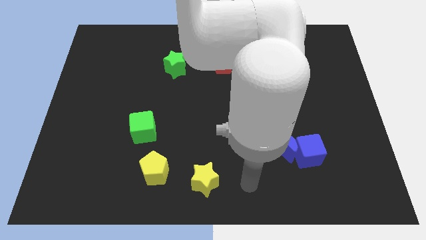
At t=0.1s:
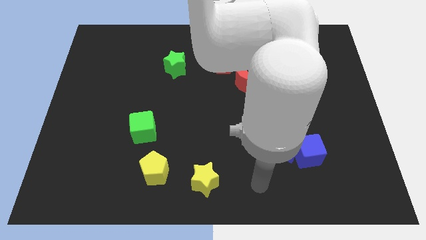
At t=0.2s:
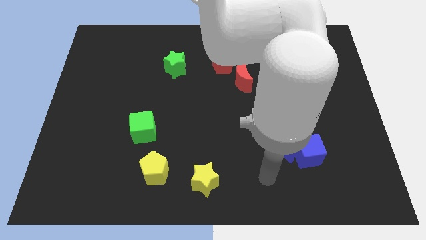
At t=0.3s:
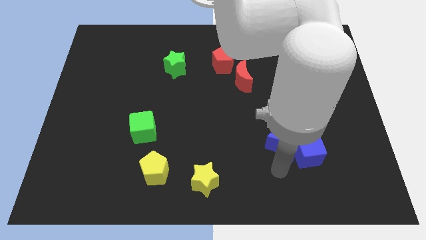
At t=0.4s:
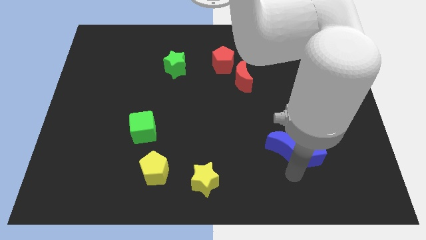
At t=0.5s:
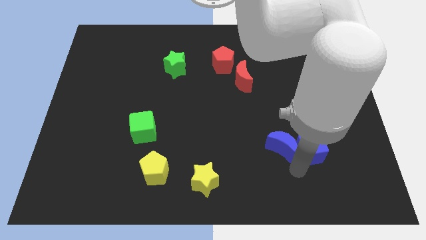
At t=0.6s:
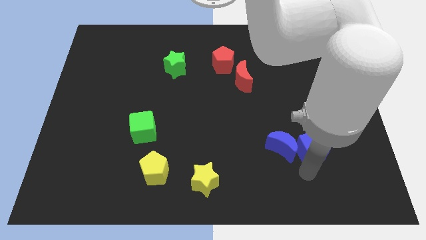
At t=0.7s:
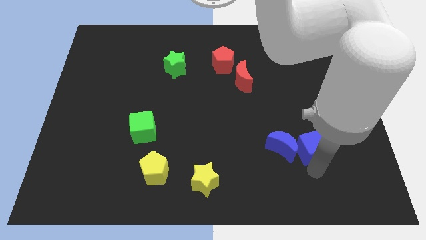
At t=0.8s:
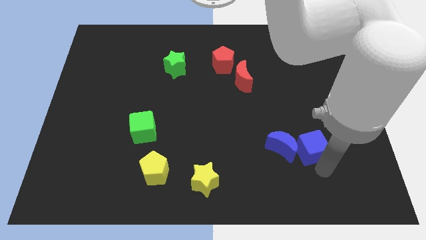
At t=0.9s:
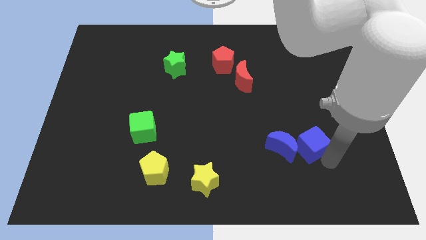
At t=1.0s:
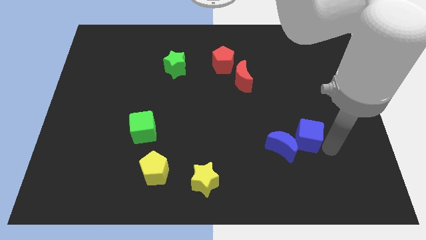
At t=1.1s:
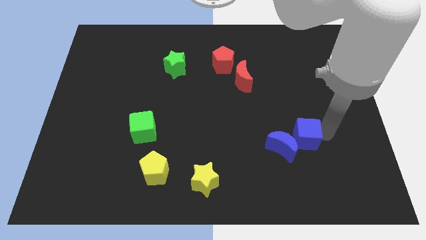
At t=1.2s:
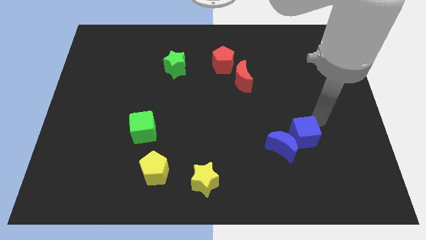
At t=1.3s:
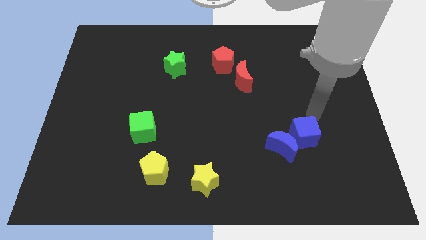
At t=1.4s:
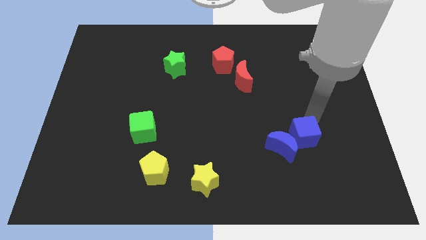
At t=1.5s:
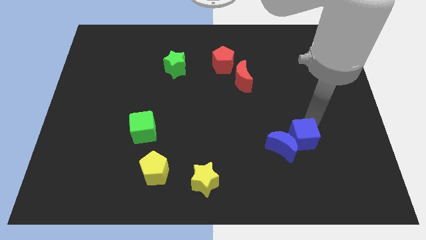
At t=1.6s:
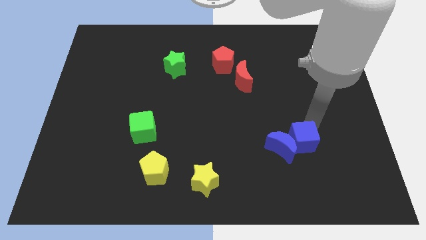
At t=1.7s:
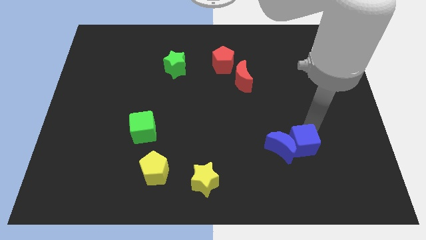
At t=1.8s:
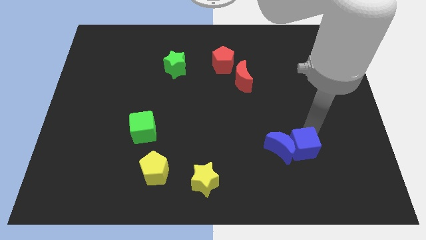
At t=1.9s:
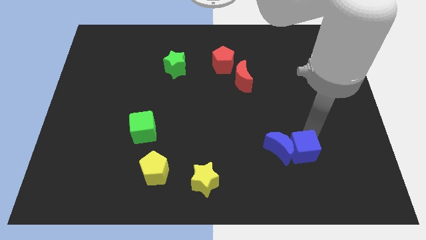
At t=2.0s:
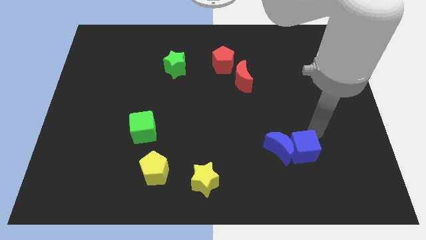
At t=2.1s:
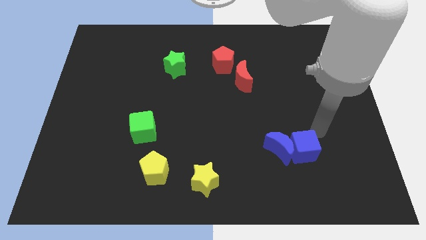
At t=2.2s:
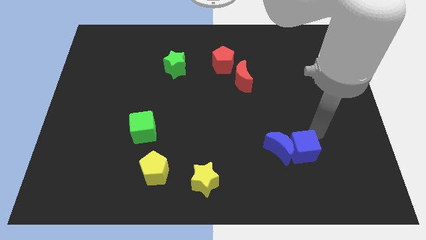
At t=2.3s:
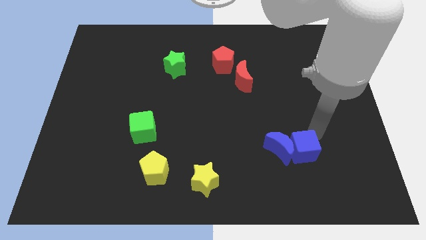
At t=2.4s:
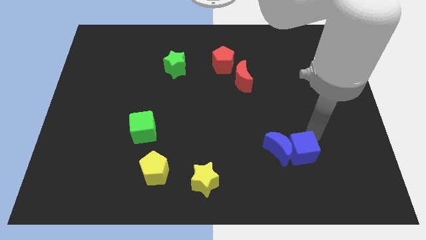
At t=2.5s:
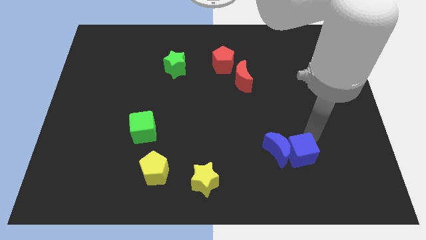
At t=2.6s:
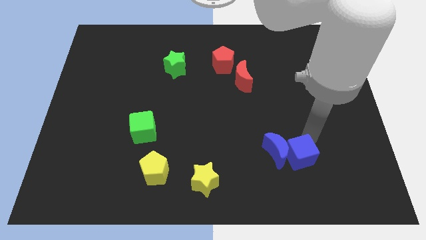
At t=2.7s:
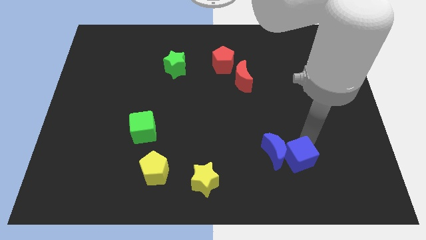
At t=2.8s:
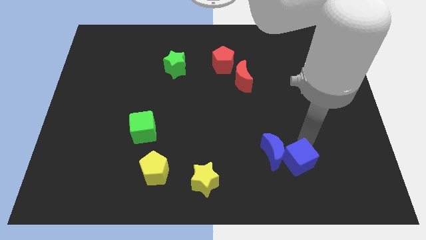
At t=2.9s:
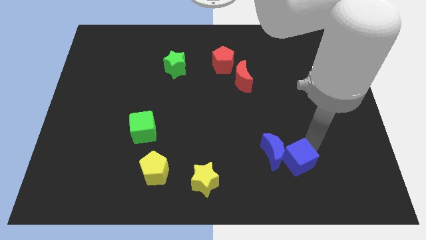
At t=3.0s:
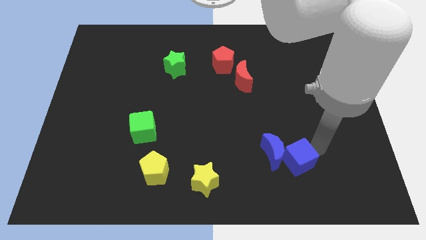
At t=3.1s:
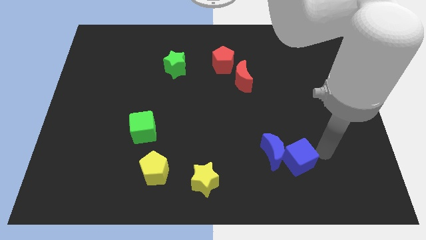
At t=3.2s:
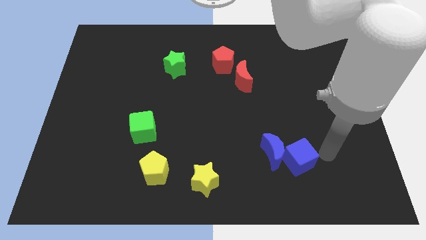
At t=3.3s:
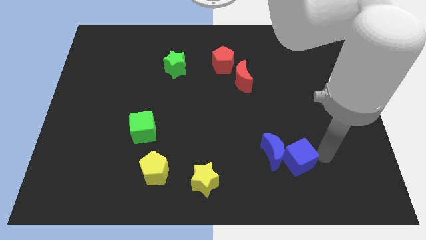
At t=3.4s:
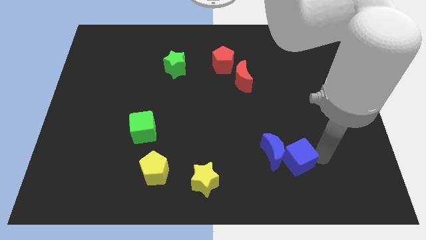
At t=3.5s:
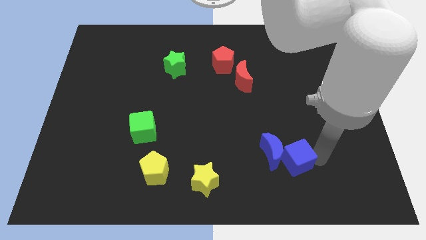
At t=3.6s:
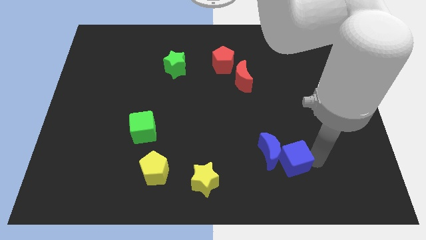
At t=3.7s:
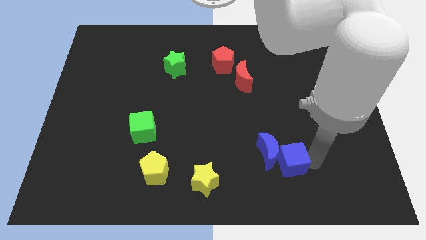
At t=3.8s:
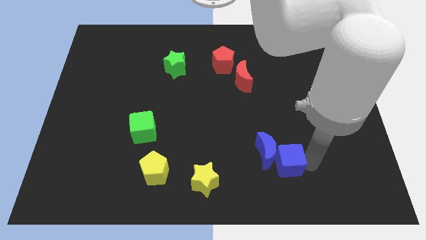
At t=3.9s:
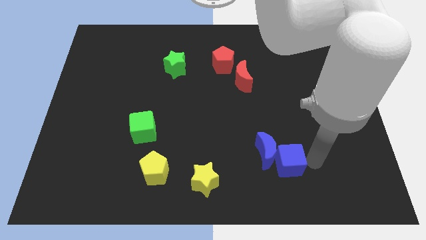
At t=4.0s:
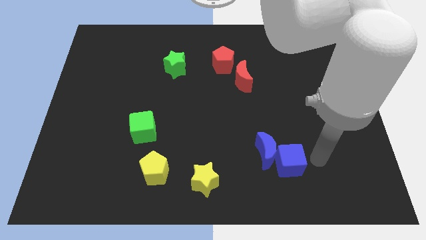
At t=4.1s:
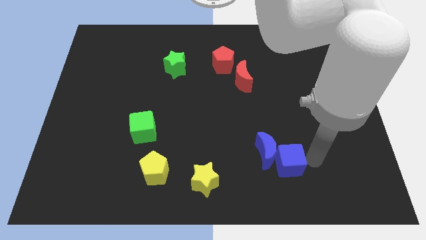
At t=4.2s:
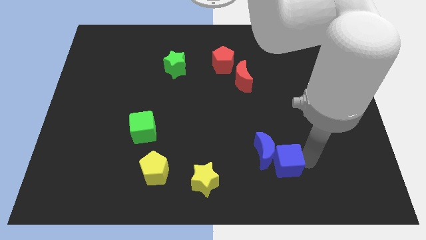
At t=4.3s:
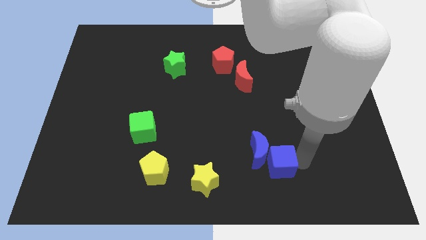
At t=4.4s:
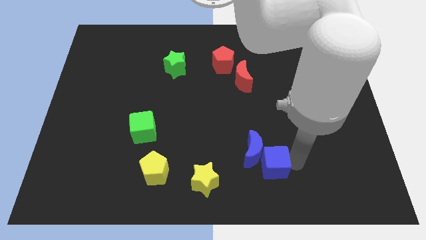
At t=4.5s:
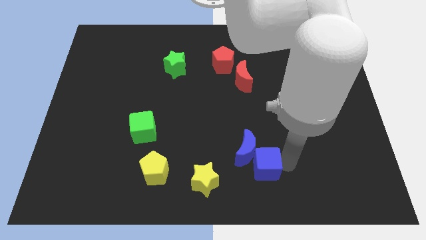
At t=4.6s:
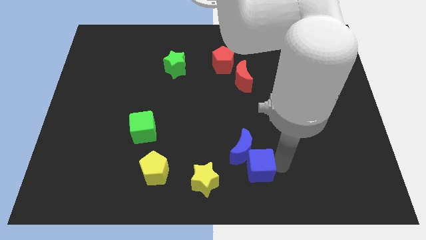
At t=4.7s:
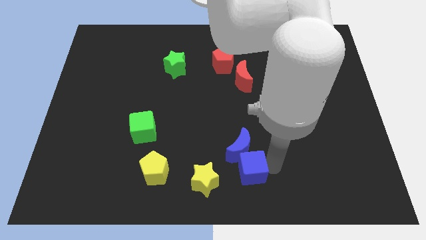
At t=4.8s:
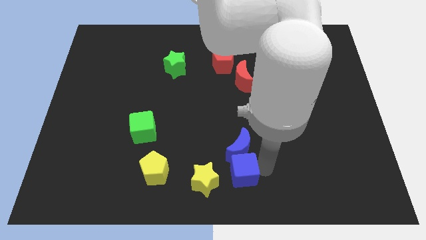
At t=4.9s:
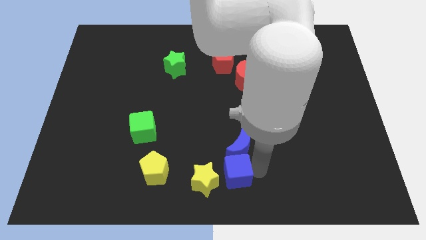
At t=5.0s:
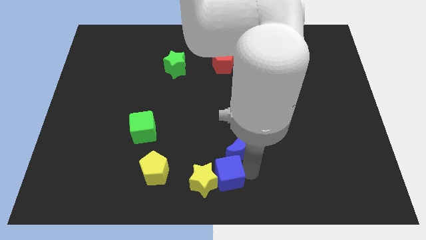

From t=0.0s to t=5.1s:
push the blue cube close to the yellow star

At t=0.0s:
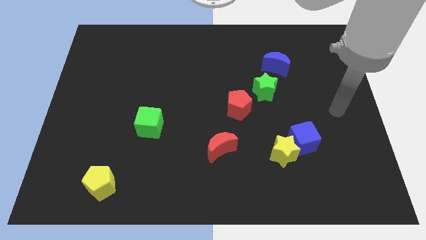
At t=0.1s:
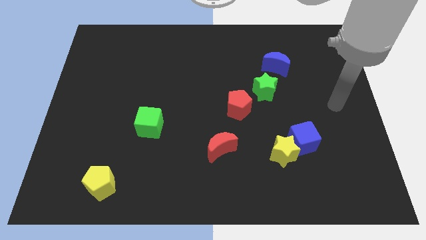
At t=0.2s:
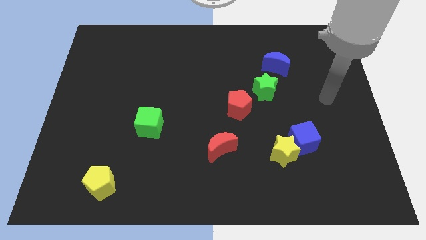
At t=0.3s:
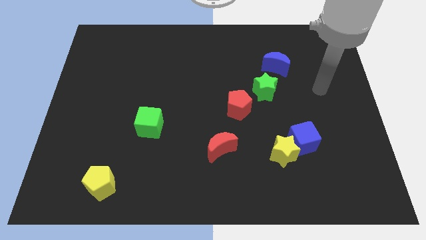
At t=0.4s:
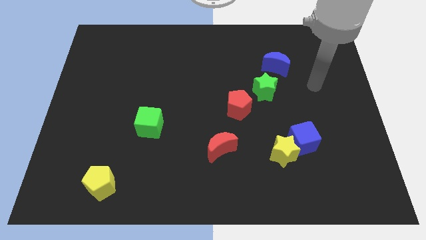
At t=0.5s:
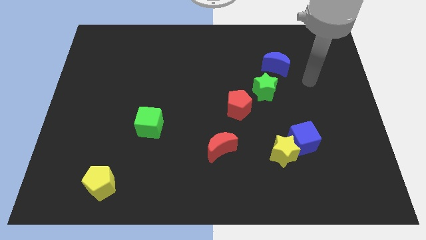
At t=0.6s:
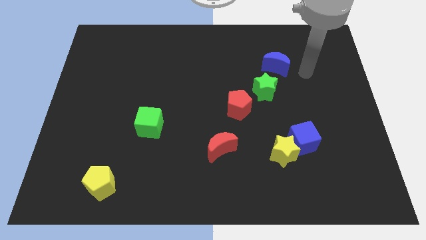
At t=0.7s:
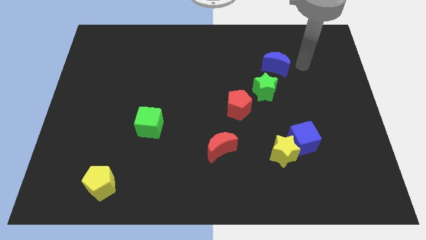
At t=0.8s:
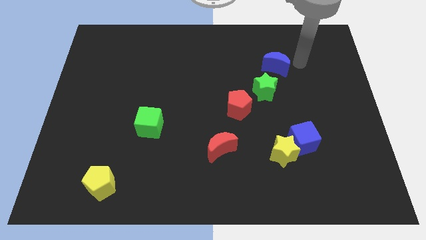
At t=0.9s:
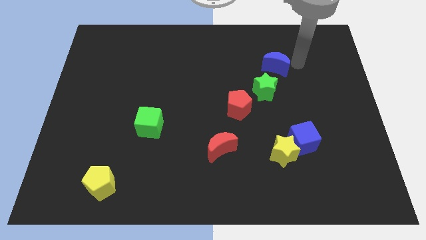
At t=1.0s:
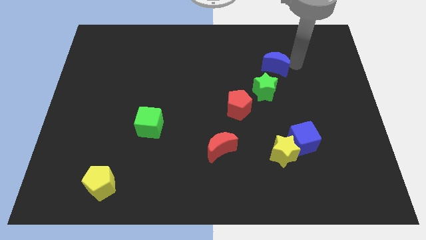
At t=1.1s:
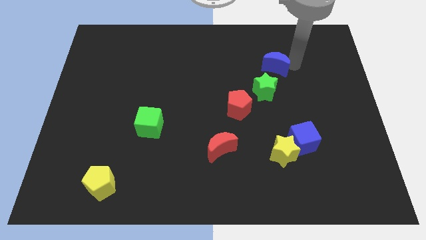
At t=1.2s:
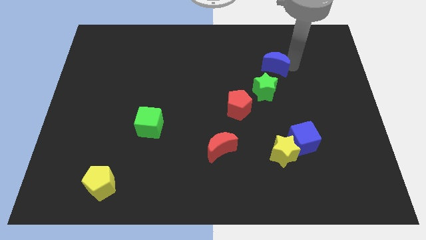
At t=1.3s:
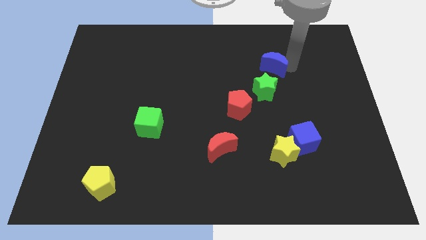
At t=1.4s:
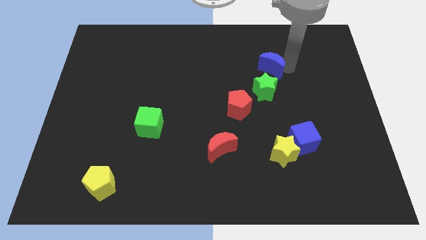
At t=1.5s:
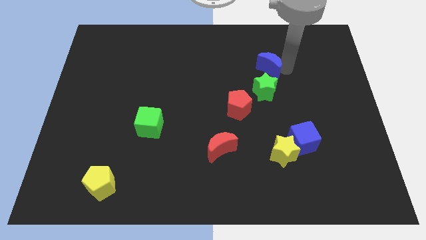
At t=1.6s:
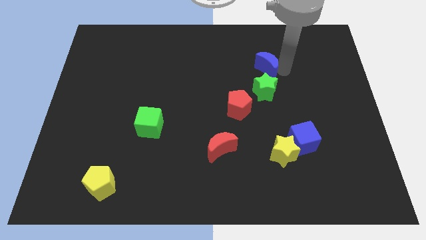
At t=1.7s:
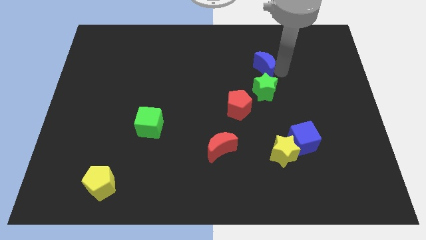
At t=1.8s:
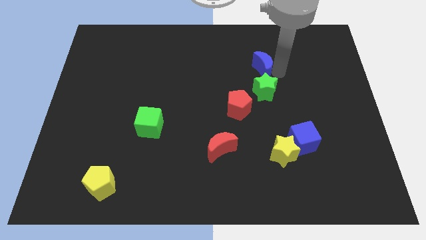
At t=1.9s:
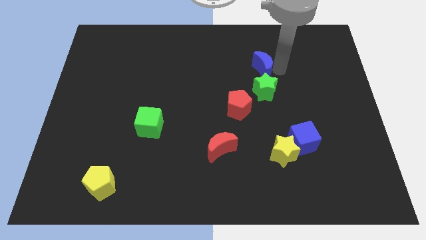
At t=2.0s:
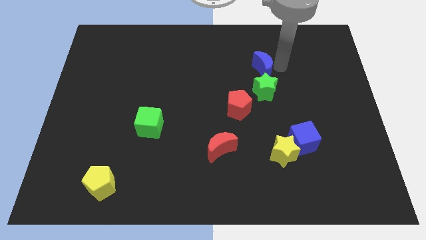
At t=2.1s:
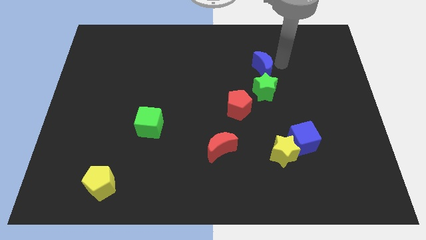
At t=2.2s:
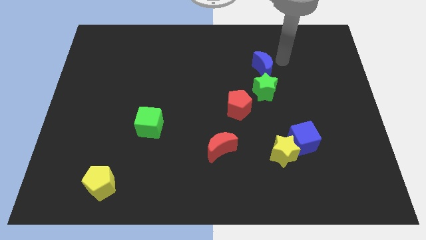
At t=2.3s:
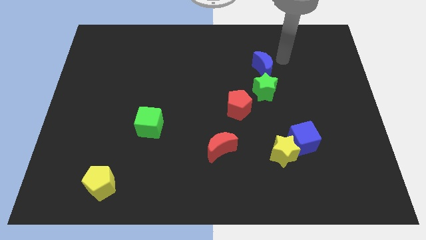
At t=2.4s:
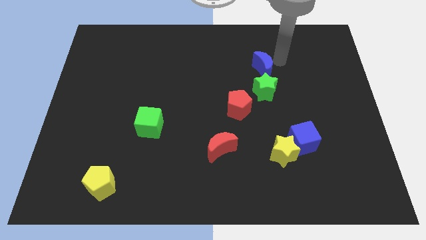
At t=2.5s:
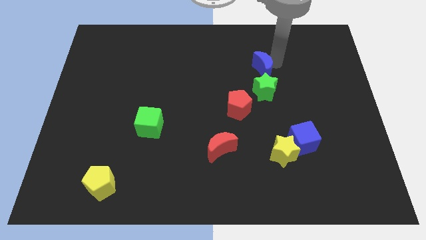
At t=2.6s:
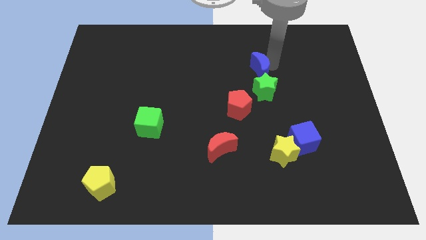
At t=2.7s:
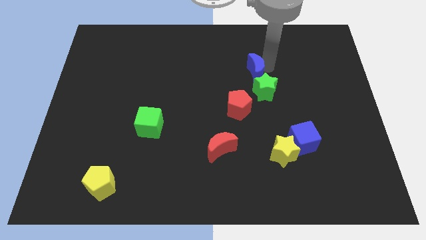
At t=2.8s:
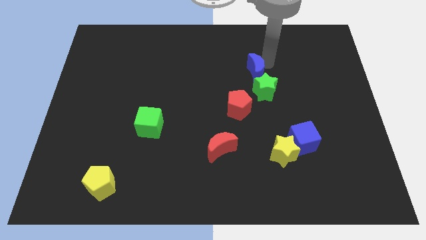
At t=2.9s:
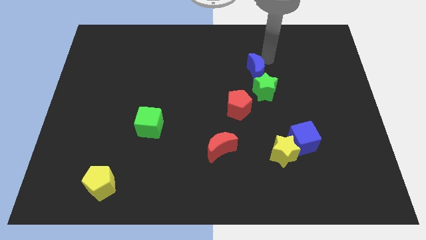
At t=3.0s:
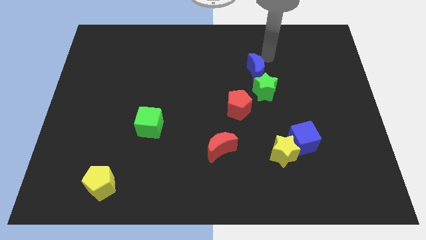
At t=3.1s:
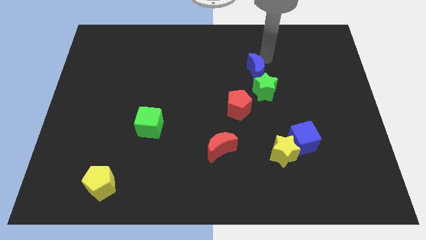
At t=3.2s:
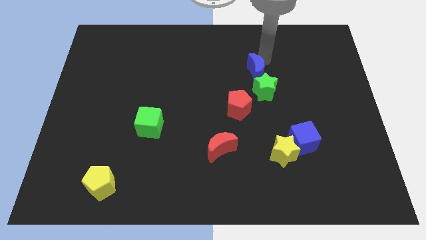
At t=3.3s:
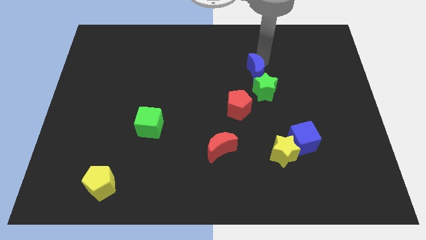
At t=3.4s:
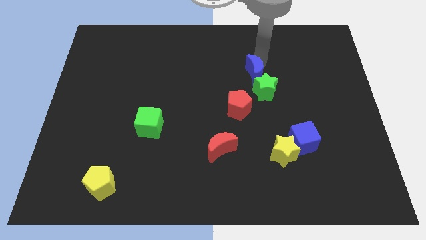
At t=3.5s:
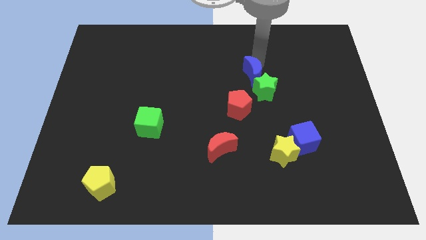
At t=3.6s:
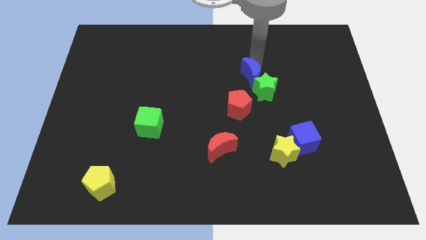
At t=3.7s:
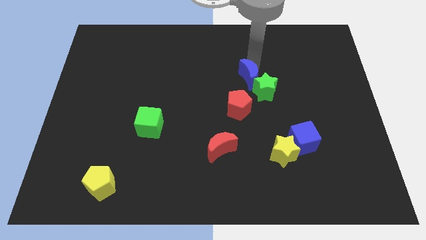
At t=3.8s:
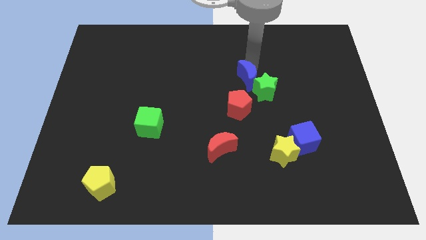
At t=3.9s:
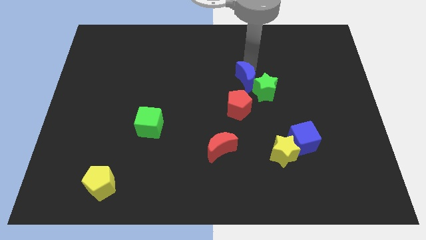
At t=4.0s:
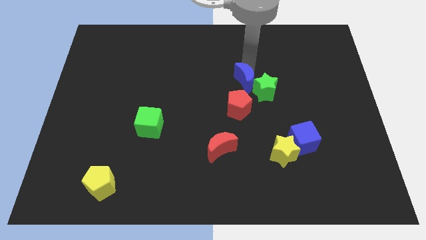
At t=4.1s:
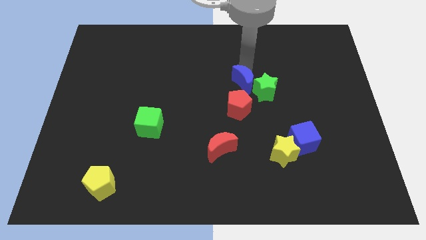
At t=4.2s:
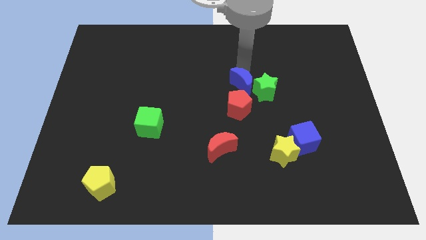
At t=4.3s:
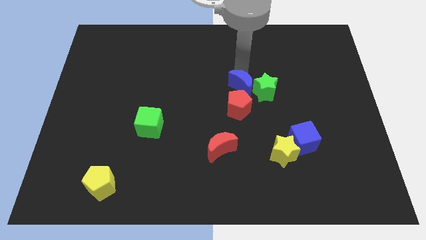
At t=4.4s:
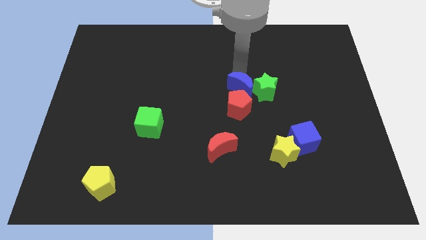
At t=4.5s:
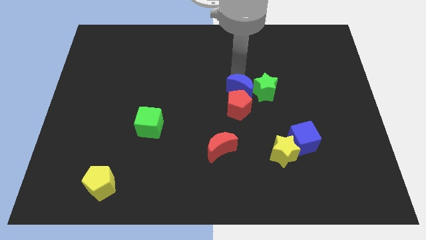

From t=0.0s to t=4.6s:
move the blue moon next to the red pentagon
